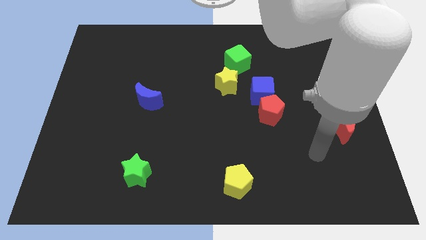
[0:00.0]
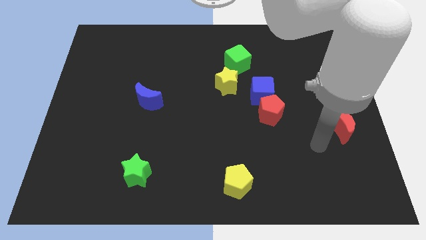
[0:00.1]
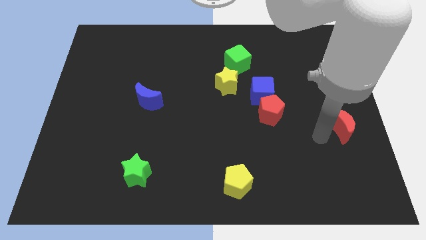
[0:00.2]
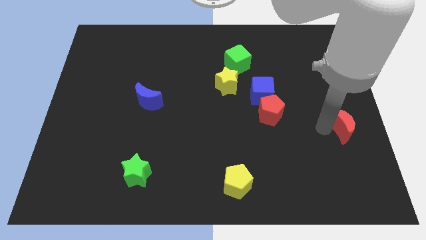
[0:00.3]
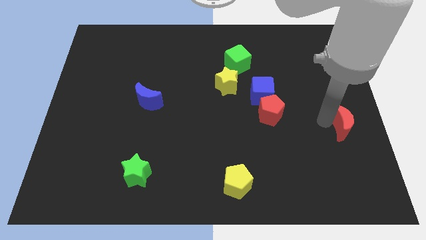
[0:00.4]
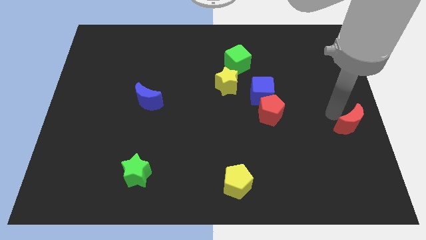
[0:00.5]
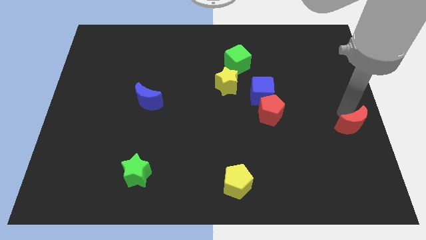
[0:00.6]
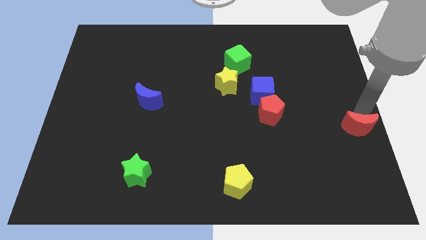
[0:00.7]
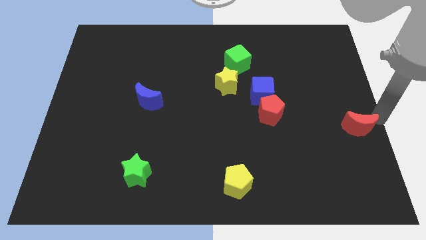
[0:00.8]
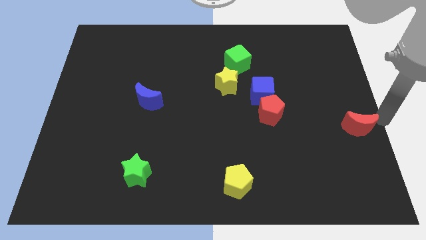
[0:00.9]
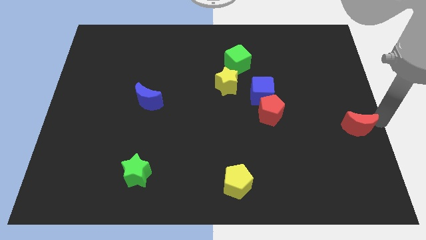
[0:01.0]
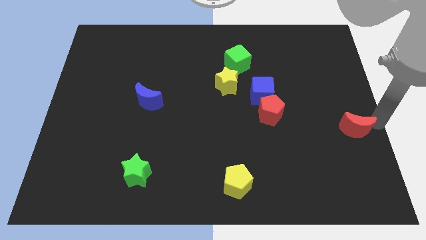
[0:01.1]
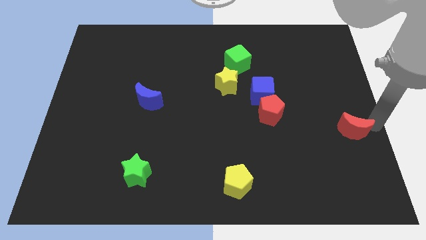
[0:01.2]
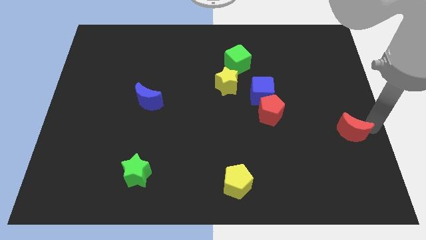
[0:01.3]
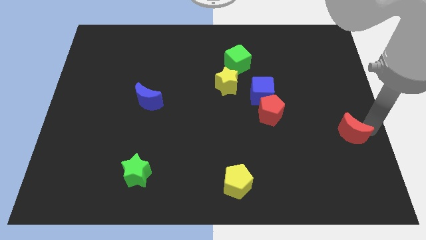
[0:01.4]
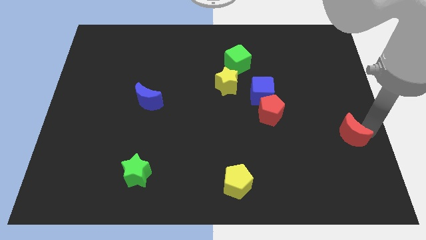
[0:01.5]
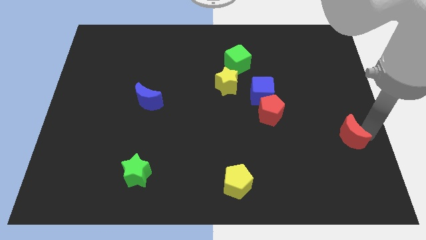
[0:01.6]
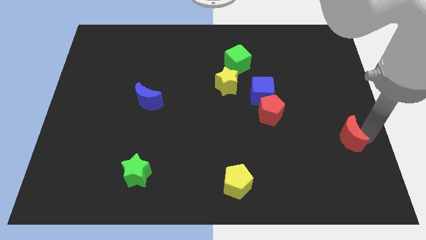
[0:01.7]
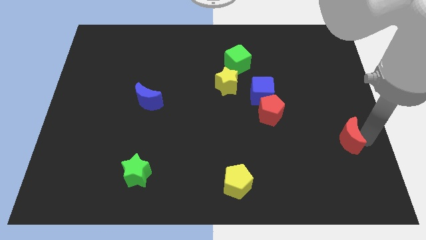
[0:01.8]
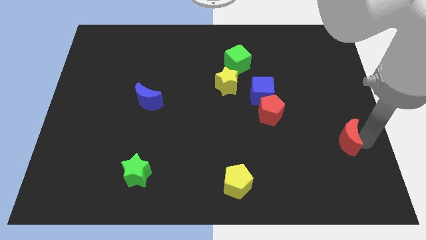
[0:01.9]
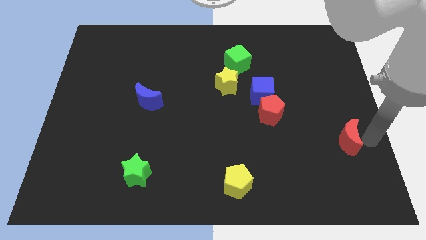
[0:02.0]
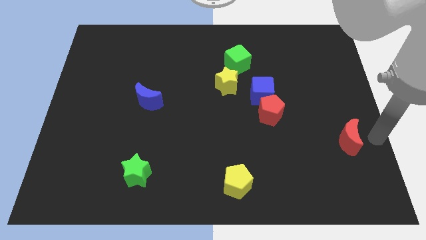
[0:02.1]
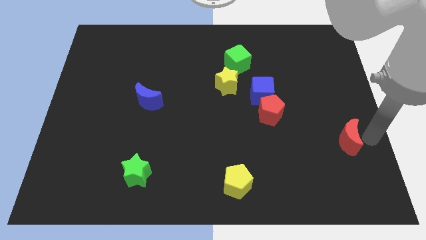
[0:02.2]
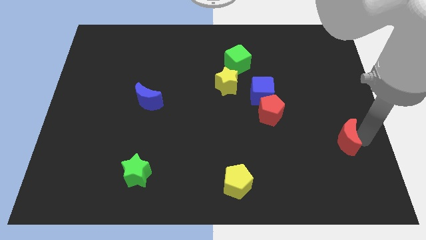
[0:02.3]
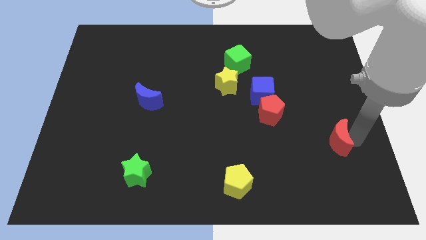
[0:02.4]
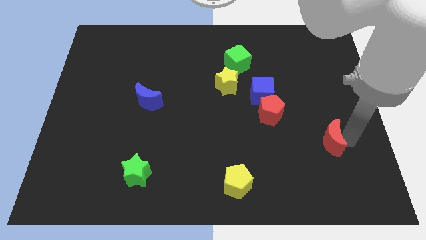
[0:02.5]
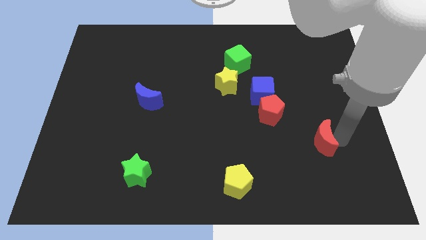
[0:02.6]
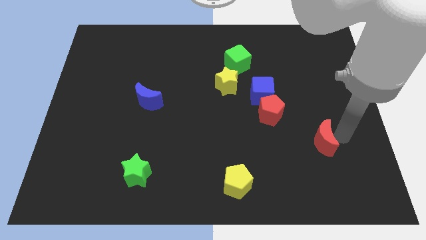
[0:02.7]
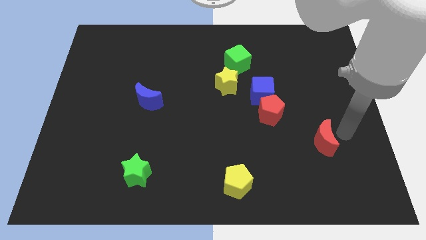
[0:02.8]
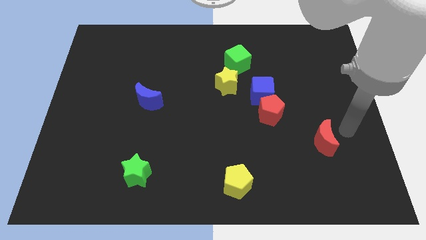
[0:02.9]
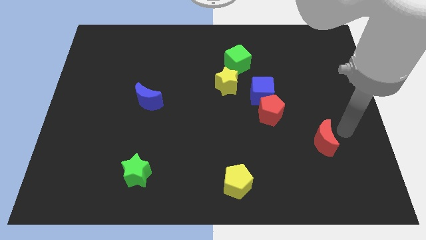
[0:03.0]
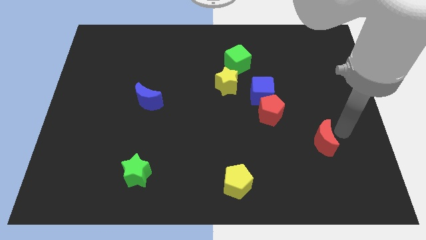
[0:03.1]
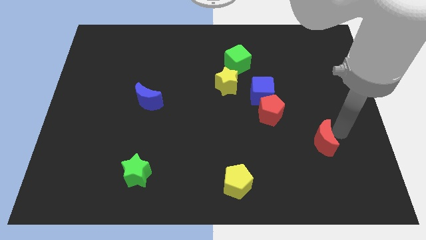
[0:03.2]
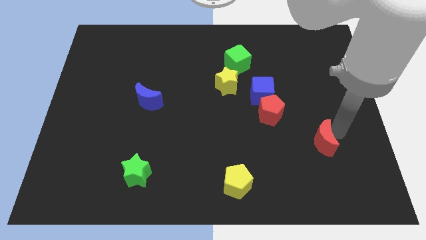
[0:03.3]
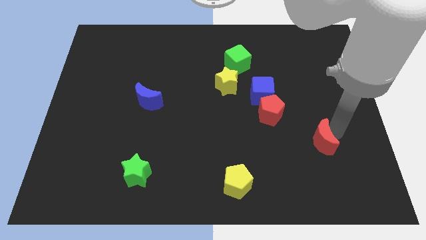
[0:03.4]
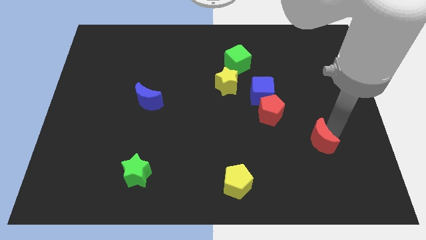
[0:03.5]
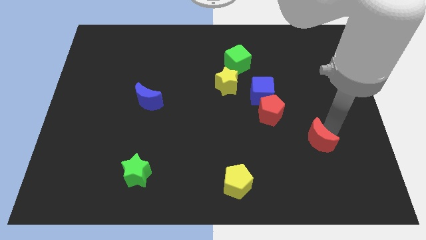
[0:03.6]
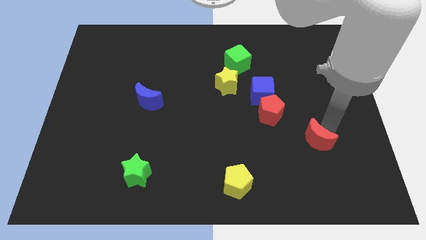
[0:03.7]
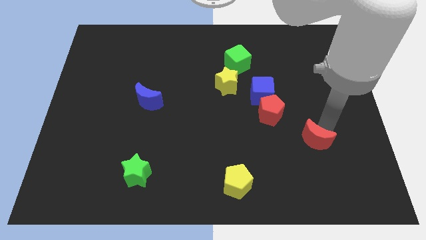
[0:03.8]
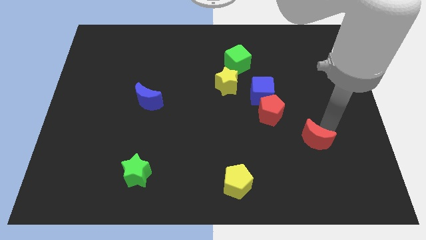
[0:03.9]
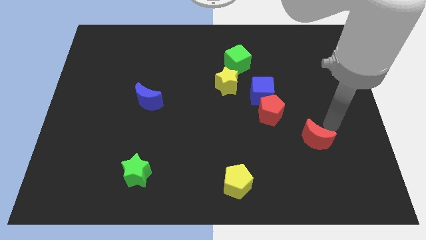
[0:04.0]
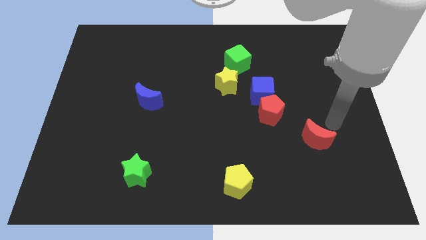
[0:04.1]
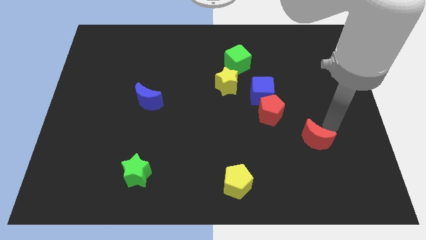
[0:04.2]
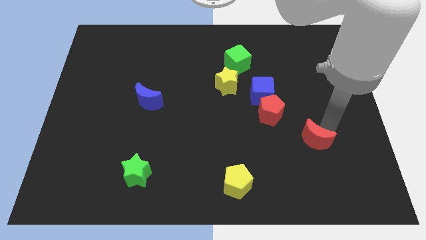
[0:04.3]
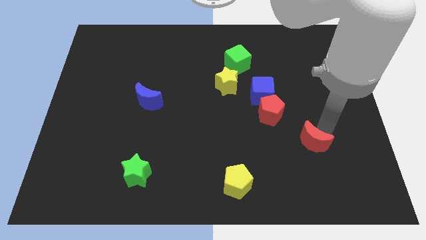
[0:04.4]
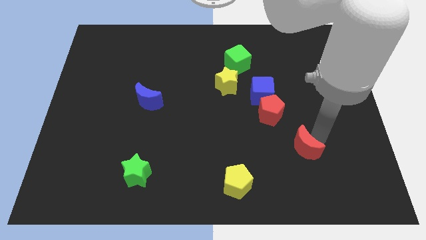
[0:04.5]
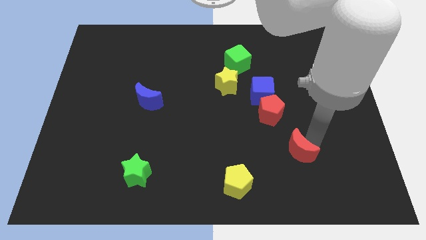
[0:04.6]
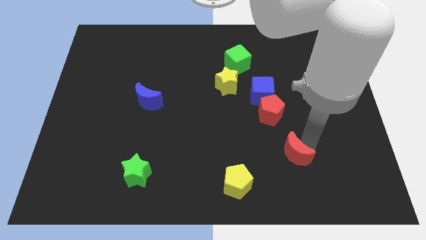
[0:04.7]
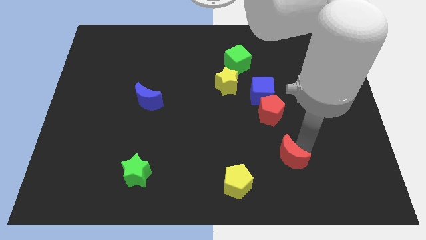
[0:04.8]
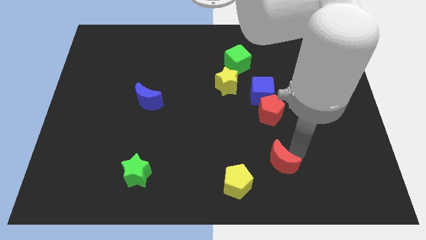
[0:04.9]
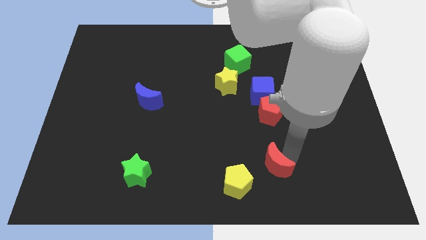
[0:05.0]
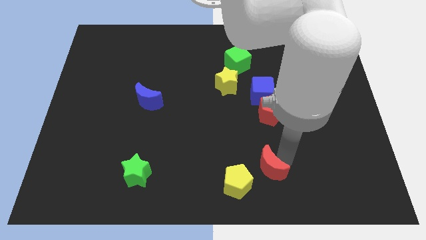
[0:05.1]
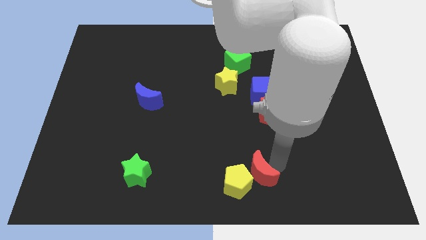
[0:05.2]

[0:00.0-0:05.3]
push the red moon close to the yellow pentagon

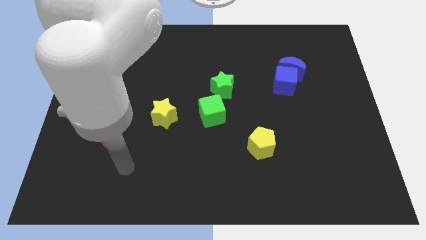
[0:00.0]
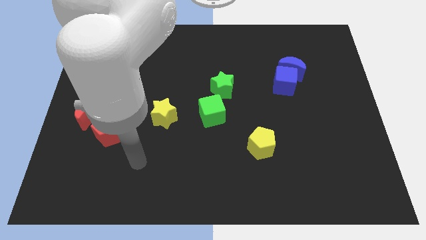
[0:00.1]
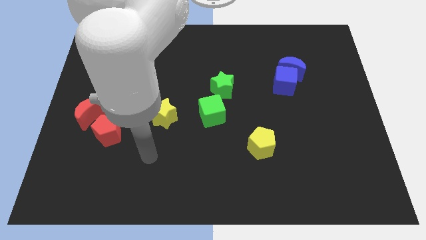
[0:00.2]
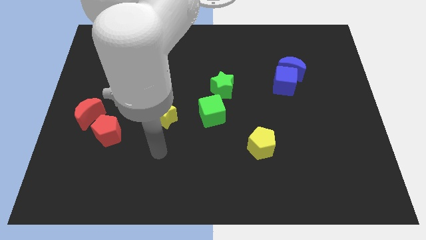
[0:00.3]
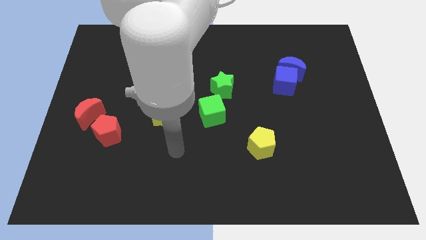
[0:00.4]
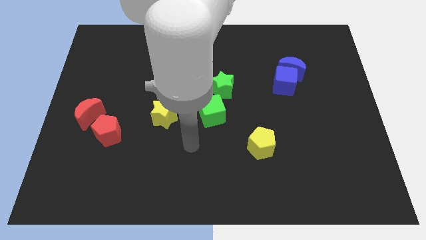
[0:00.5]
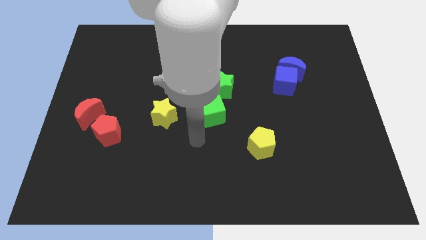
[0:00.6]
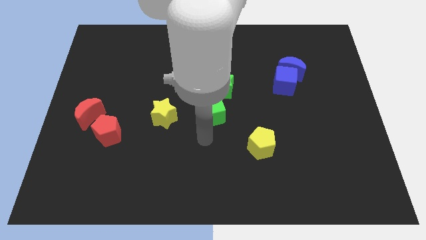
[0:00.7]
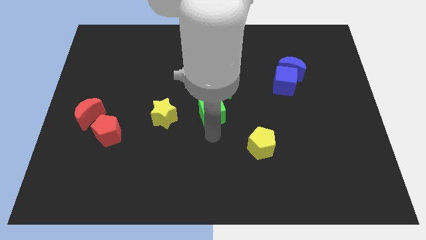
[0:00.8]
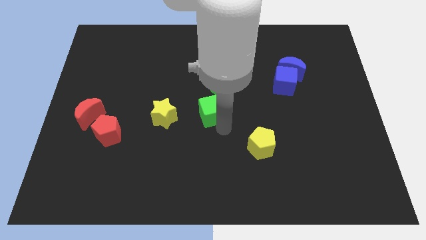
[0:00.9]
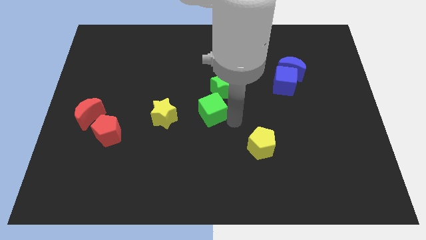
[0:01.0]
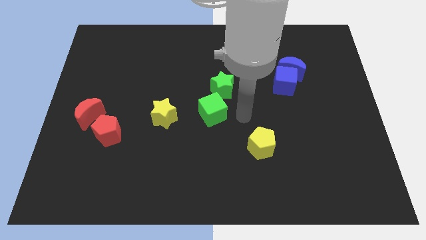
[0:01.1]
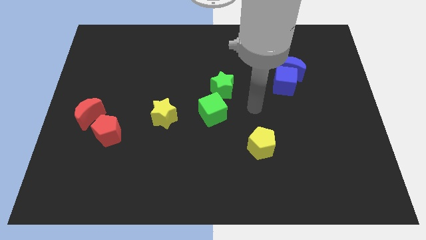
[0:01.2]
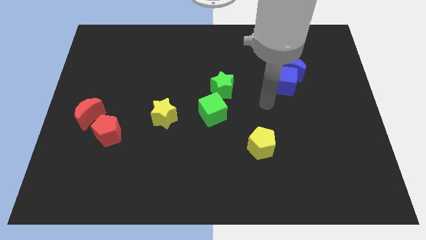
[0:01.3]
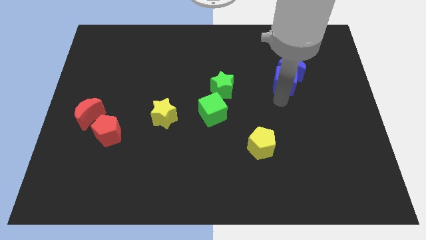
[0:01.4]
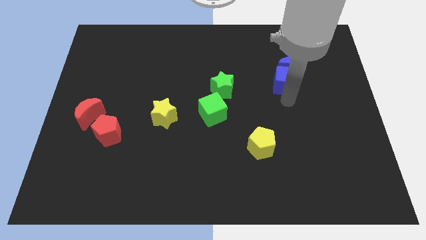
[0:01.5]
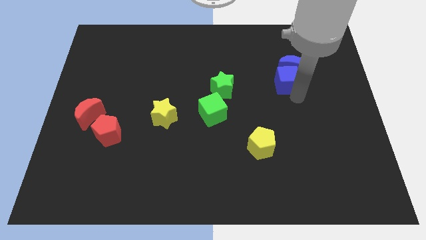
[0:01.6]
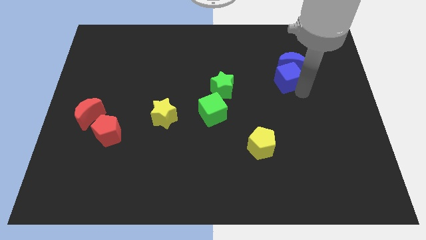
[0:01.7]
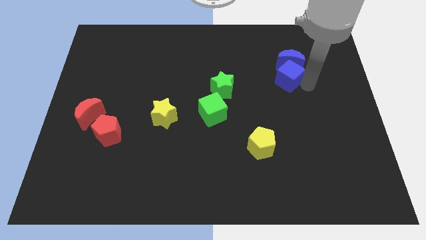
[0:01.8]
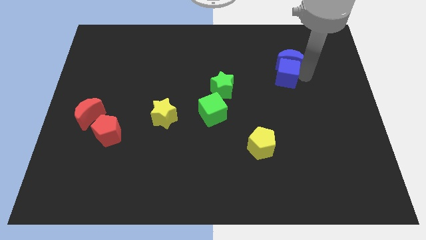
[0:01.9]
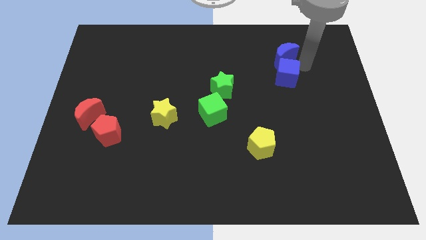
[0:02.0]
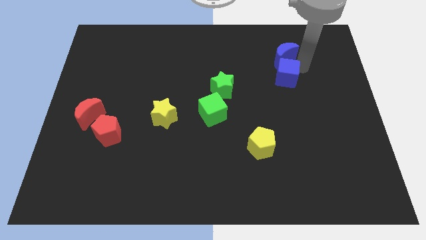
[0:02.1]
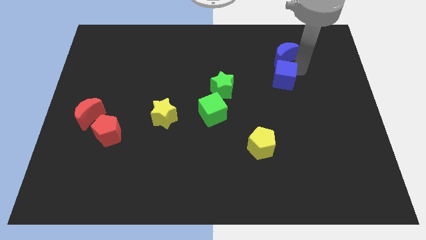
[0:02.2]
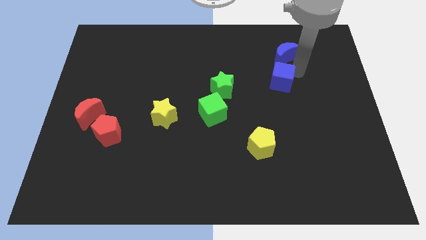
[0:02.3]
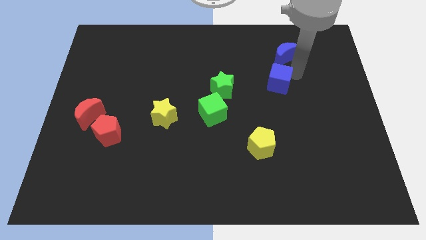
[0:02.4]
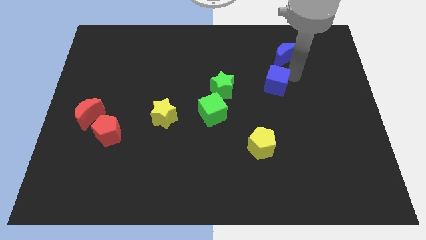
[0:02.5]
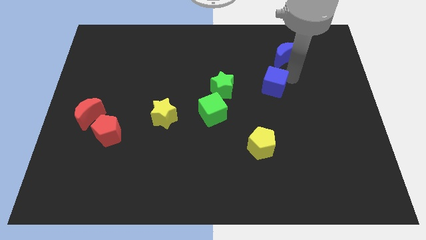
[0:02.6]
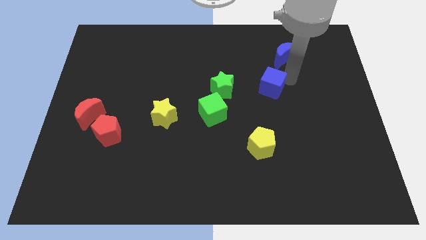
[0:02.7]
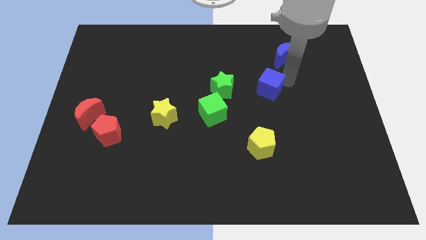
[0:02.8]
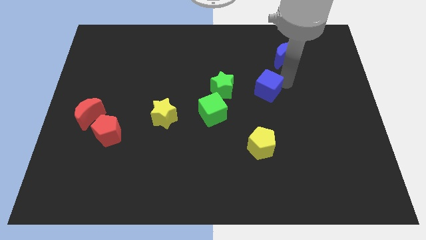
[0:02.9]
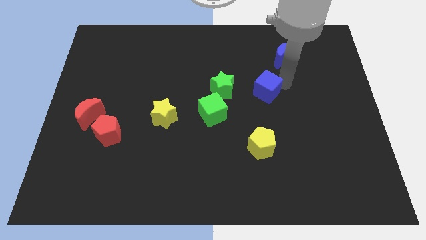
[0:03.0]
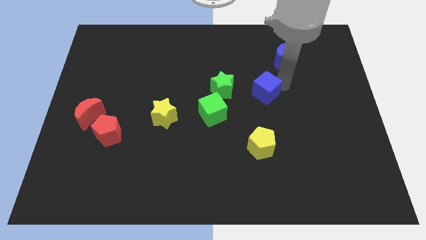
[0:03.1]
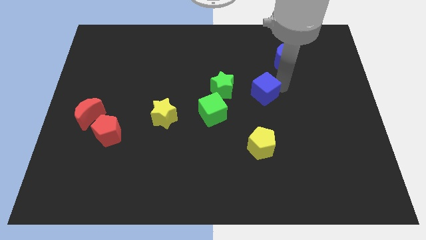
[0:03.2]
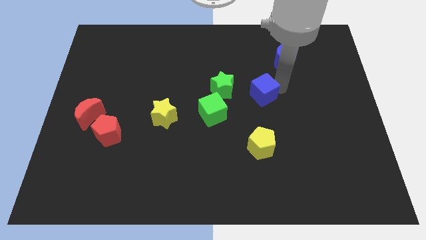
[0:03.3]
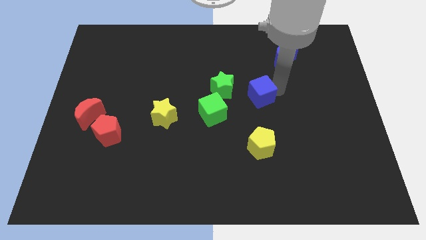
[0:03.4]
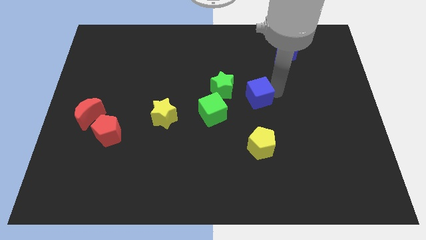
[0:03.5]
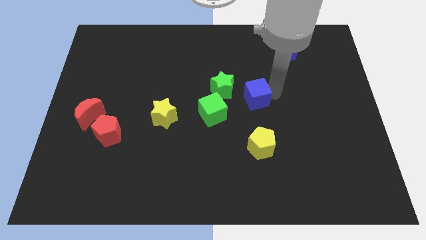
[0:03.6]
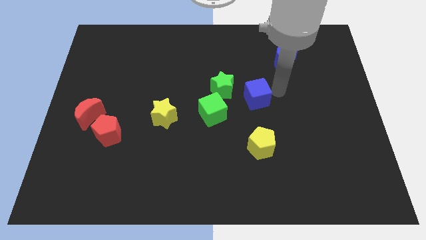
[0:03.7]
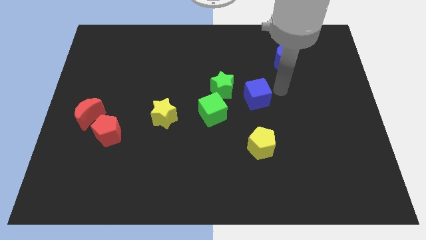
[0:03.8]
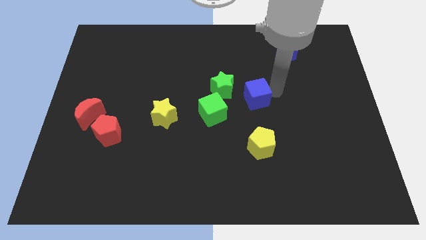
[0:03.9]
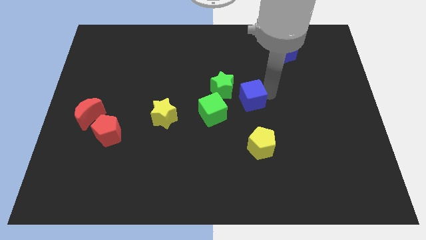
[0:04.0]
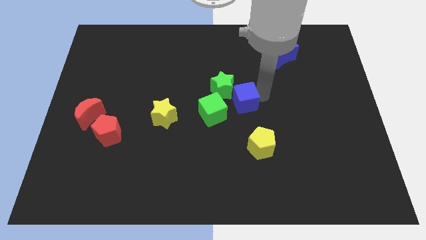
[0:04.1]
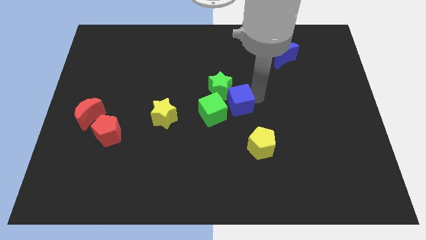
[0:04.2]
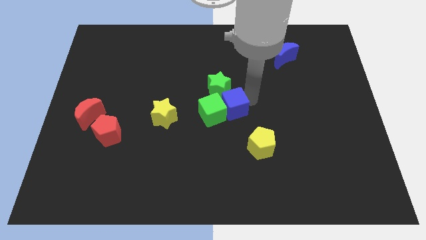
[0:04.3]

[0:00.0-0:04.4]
move the blue cube next to the green cube
